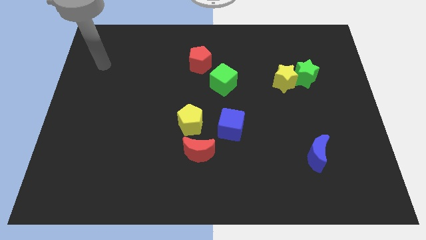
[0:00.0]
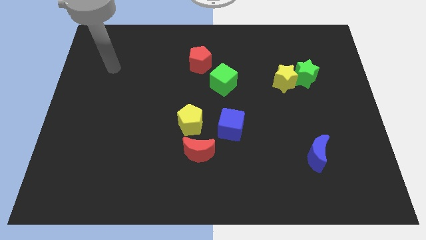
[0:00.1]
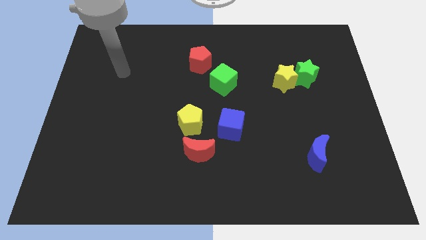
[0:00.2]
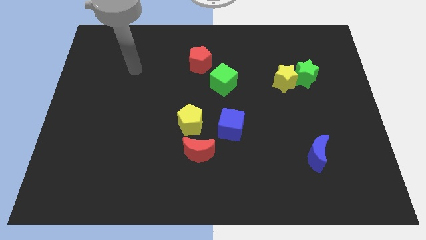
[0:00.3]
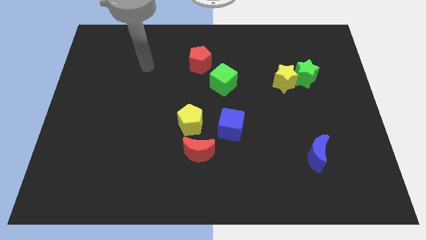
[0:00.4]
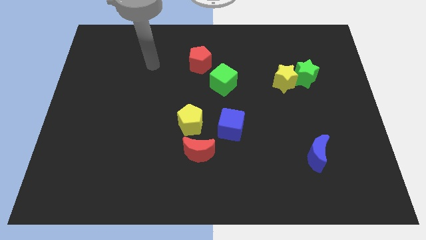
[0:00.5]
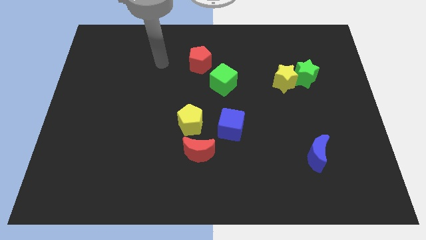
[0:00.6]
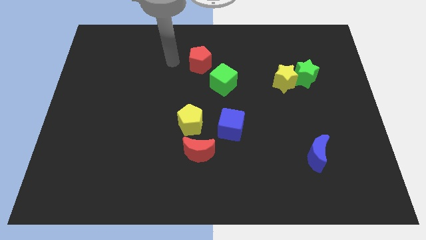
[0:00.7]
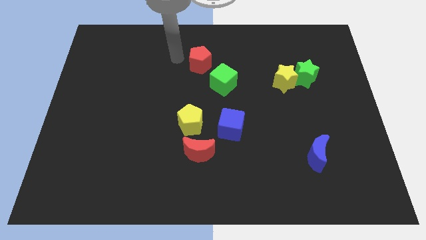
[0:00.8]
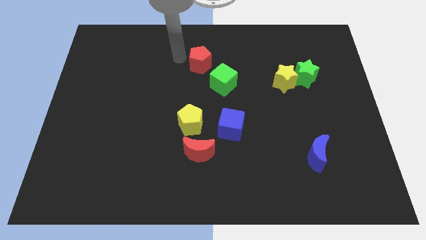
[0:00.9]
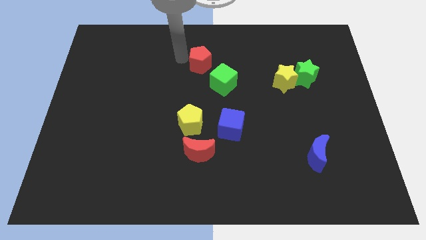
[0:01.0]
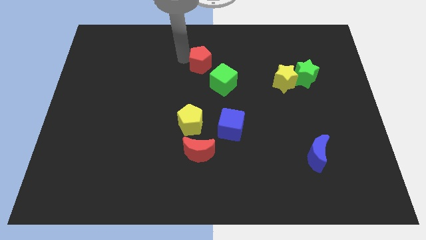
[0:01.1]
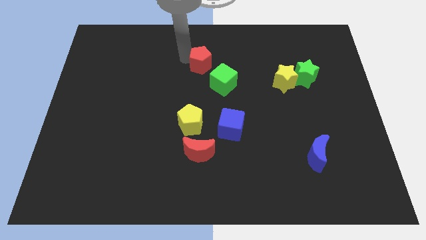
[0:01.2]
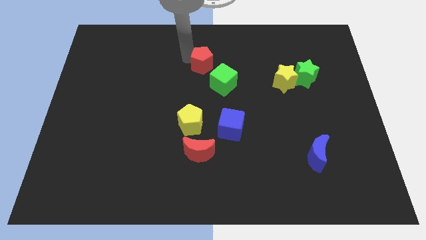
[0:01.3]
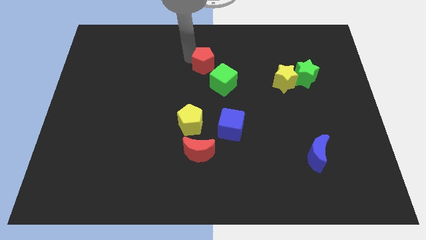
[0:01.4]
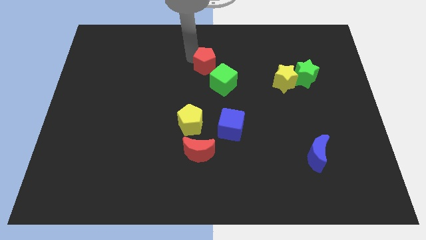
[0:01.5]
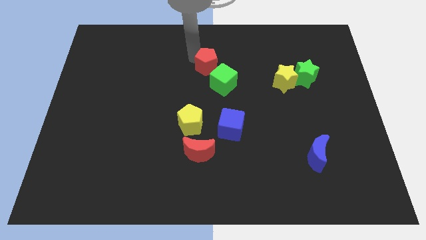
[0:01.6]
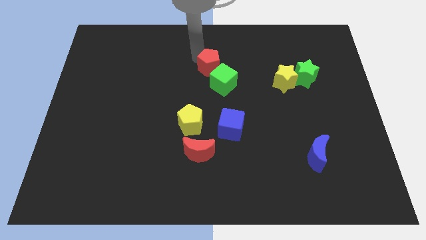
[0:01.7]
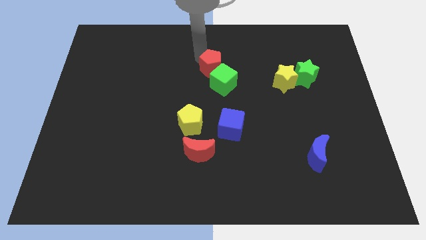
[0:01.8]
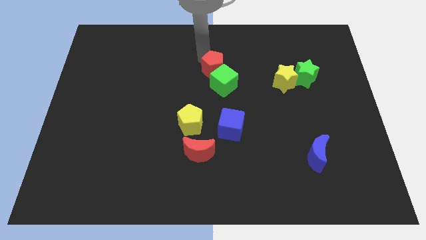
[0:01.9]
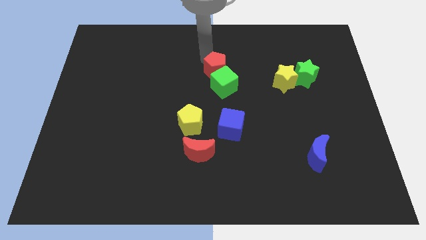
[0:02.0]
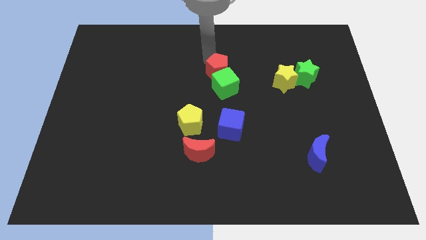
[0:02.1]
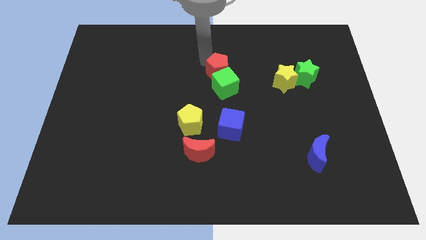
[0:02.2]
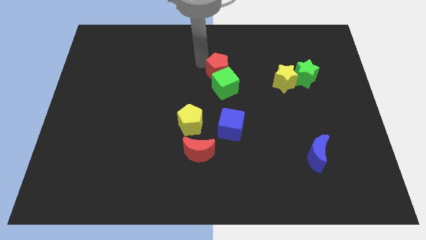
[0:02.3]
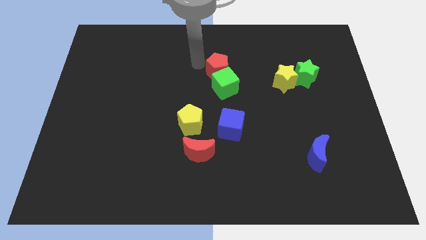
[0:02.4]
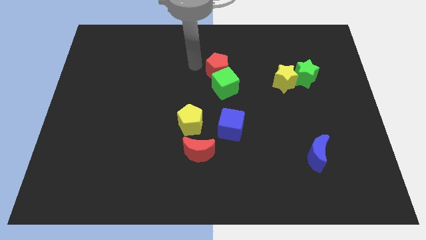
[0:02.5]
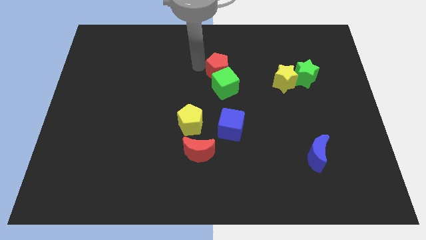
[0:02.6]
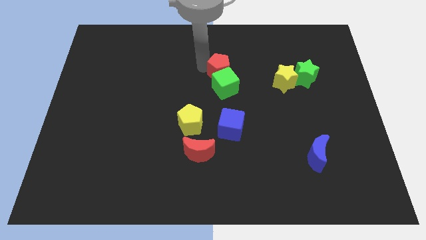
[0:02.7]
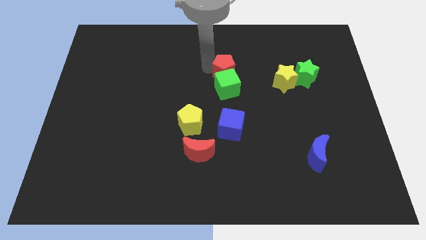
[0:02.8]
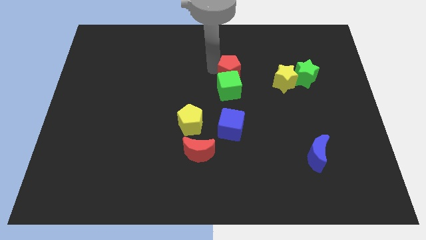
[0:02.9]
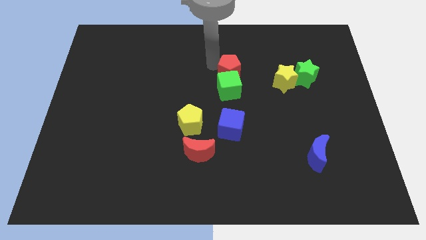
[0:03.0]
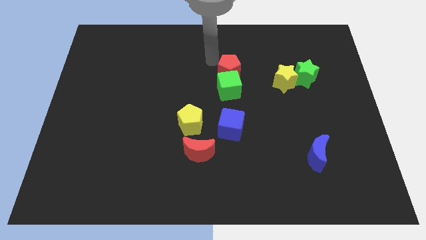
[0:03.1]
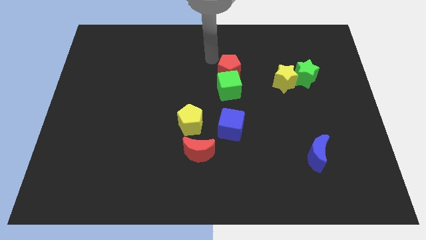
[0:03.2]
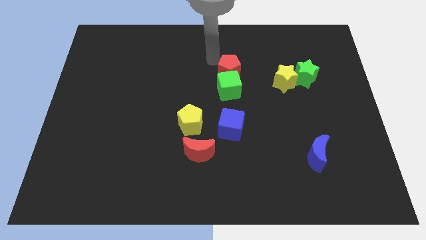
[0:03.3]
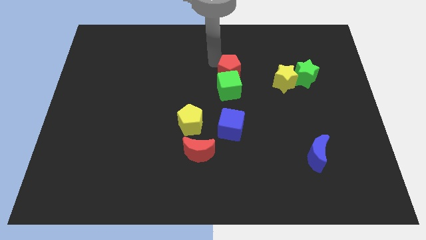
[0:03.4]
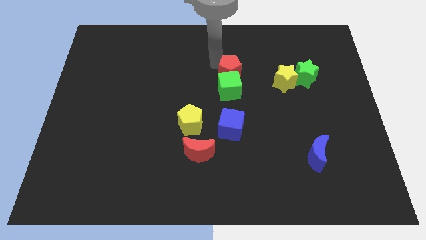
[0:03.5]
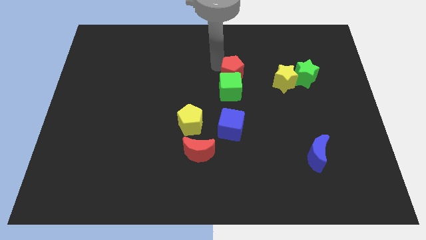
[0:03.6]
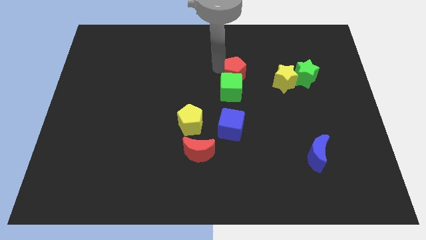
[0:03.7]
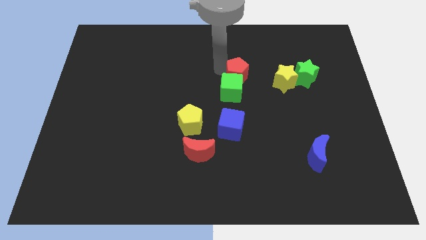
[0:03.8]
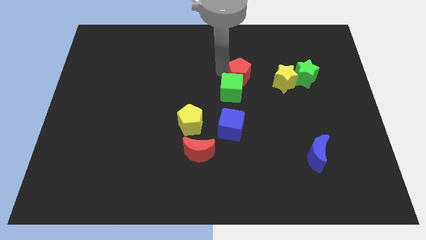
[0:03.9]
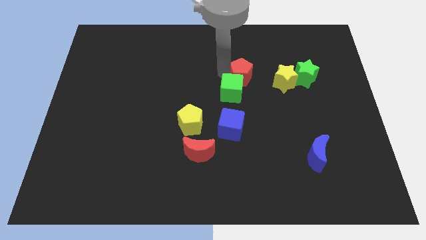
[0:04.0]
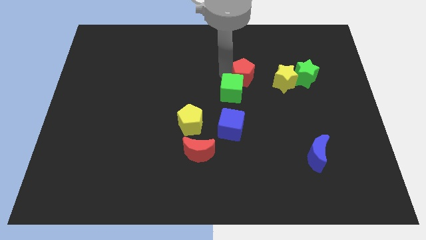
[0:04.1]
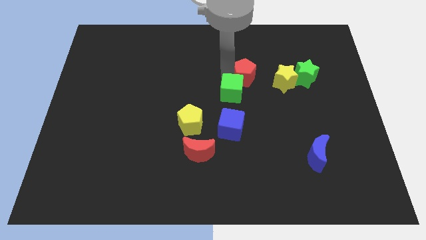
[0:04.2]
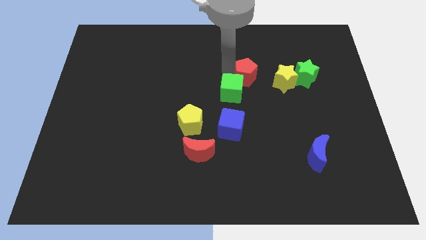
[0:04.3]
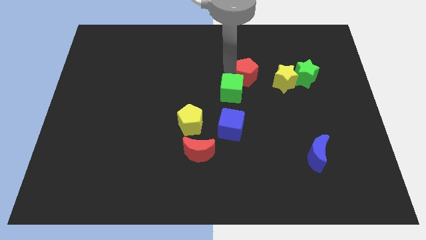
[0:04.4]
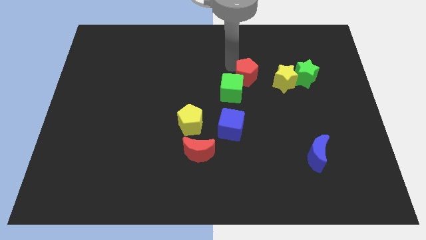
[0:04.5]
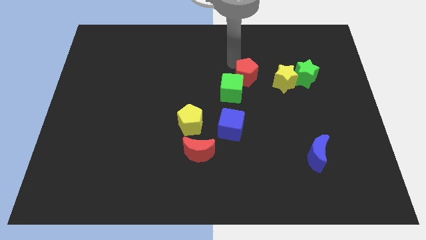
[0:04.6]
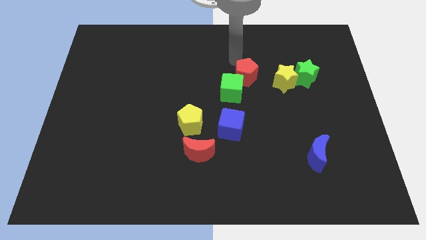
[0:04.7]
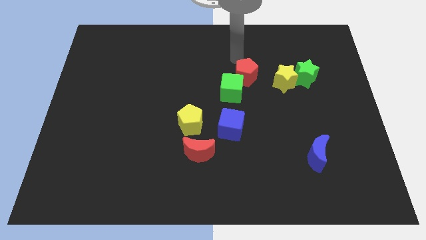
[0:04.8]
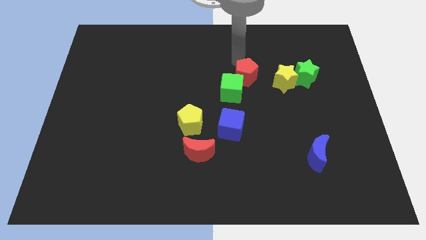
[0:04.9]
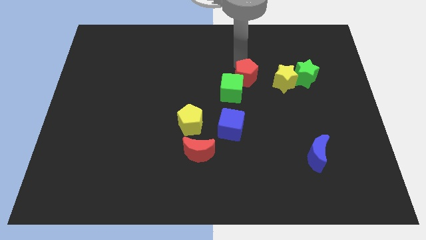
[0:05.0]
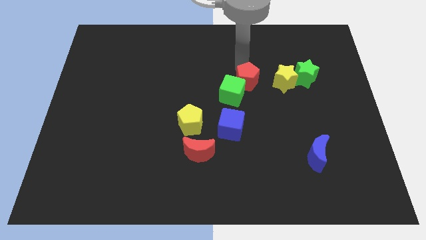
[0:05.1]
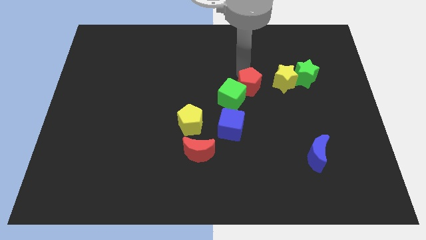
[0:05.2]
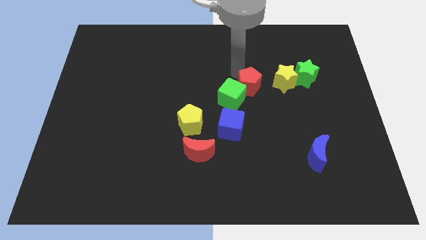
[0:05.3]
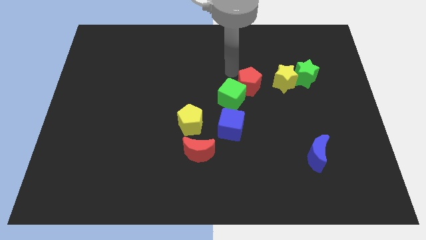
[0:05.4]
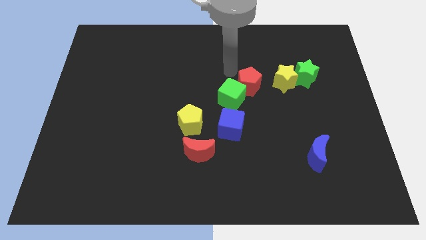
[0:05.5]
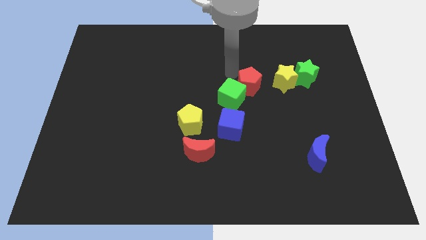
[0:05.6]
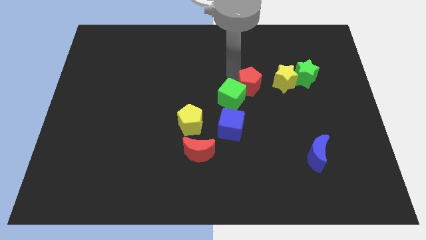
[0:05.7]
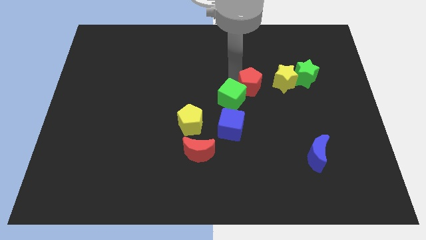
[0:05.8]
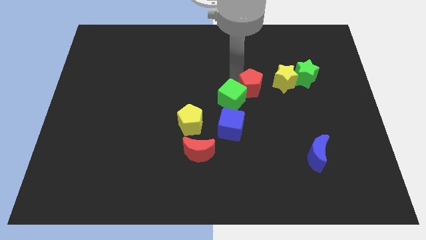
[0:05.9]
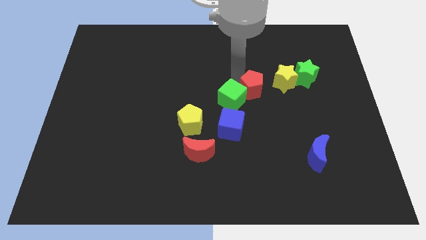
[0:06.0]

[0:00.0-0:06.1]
put the red pentagon diagonally down and to the left of the yellow star
